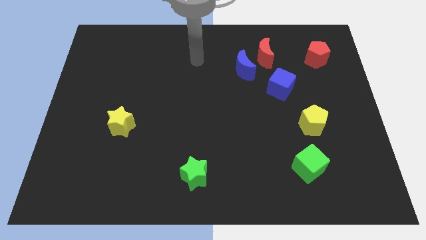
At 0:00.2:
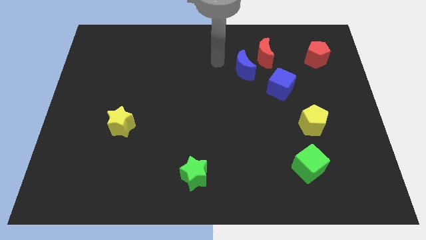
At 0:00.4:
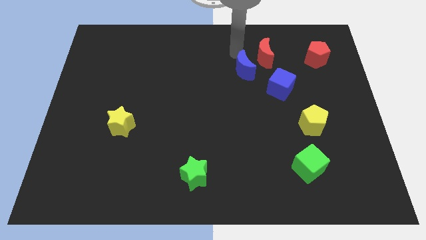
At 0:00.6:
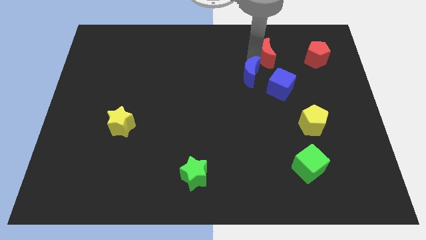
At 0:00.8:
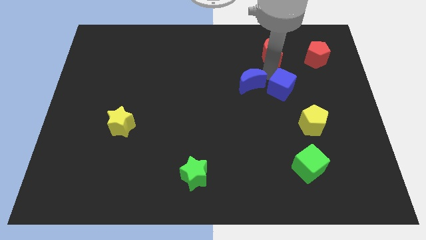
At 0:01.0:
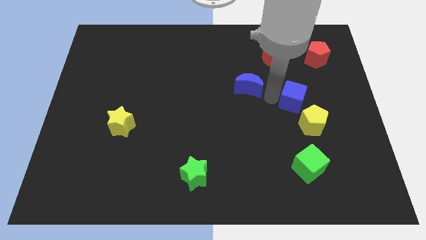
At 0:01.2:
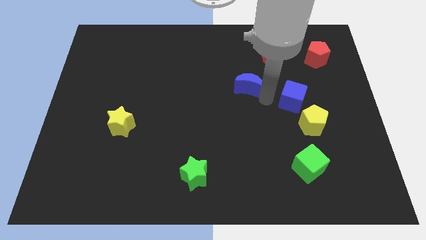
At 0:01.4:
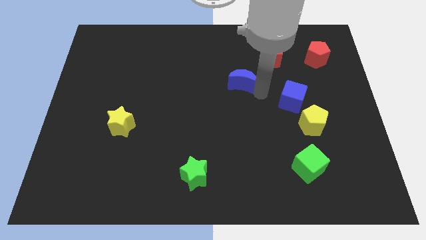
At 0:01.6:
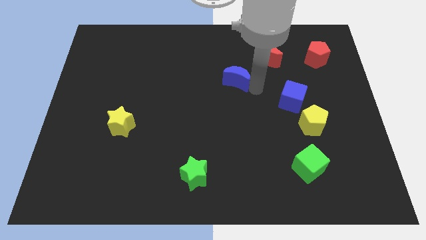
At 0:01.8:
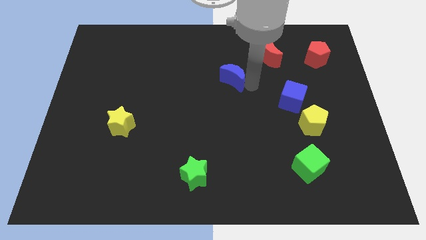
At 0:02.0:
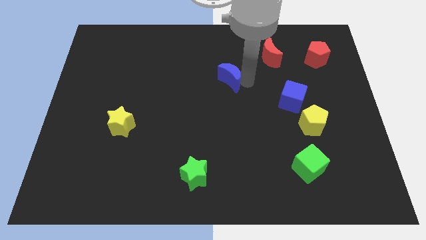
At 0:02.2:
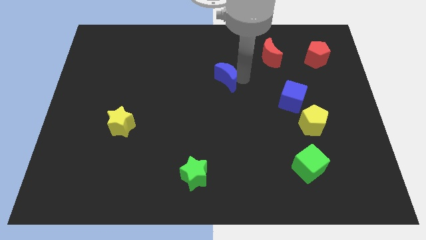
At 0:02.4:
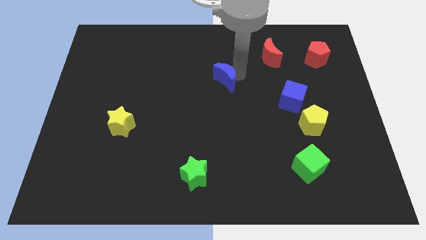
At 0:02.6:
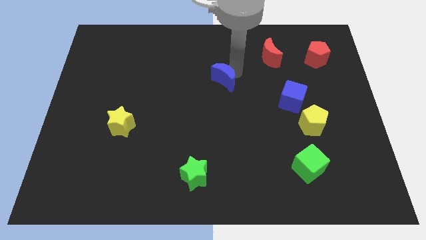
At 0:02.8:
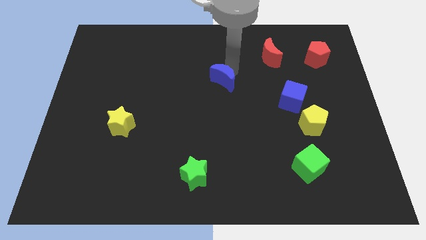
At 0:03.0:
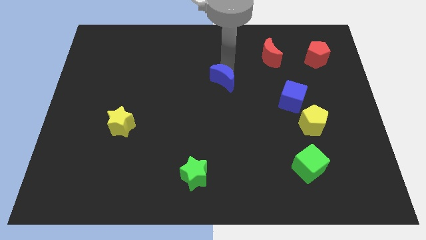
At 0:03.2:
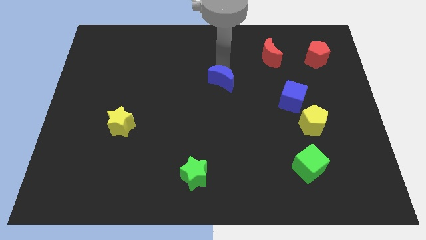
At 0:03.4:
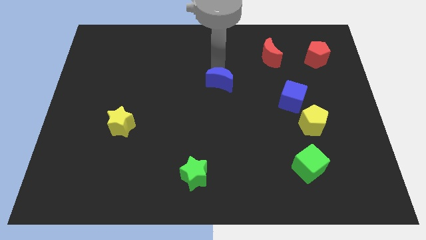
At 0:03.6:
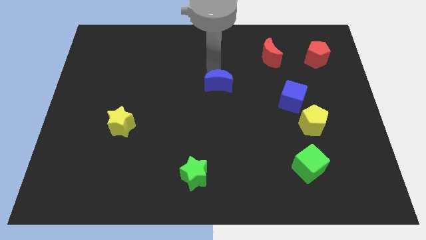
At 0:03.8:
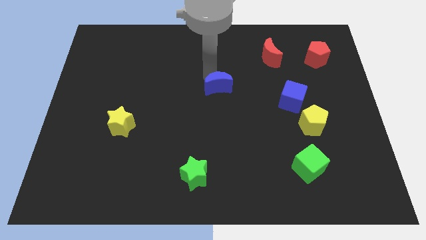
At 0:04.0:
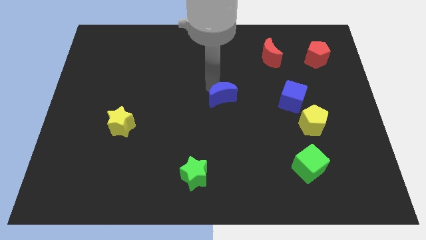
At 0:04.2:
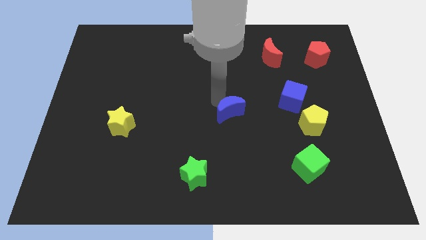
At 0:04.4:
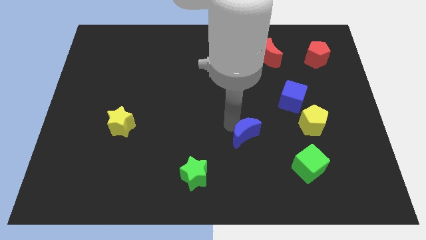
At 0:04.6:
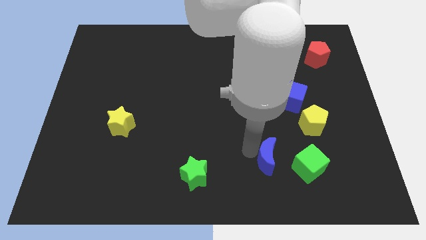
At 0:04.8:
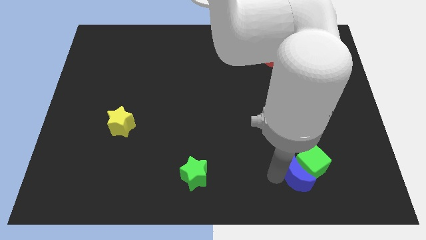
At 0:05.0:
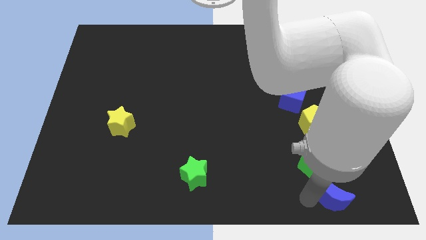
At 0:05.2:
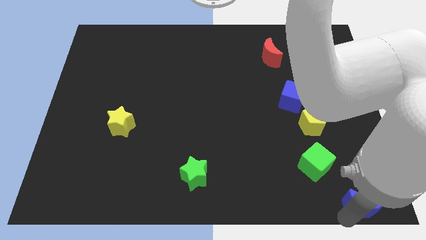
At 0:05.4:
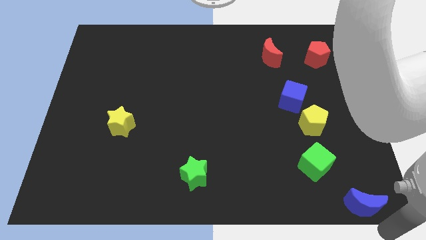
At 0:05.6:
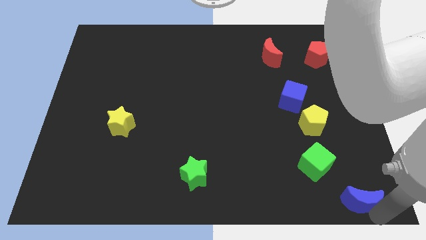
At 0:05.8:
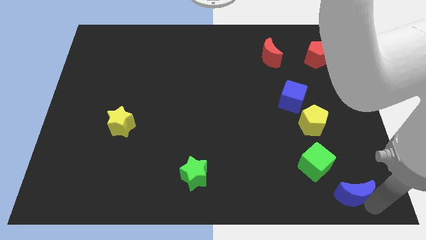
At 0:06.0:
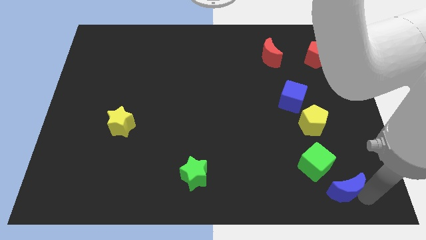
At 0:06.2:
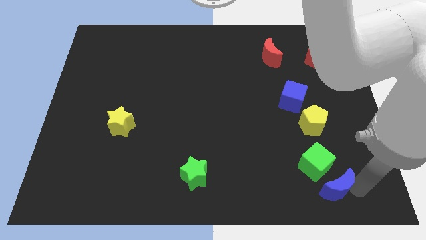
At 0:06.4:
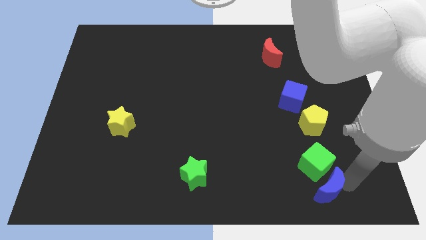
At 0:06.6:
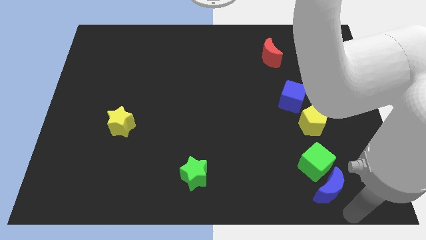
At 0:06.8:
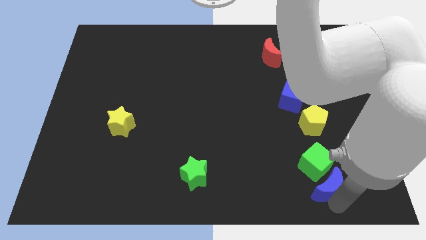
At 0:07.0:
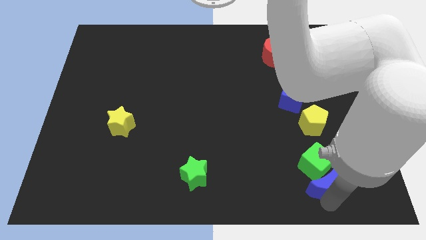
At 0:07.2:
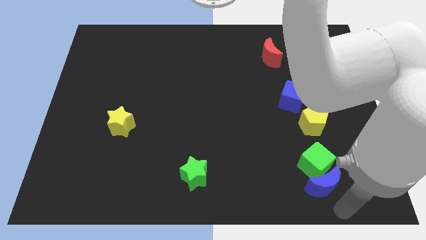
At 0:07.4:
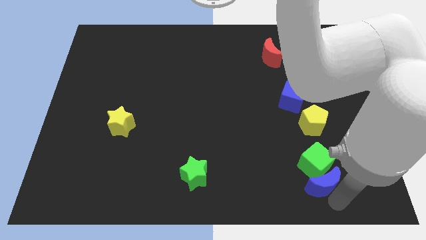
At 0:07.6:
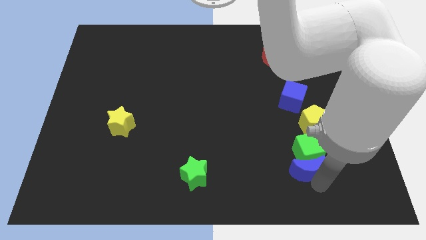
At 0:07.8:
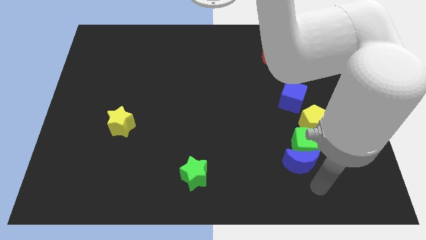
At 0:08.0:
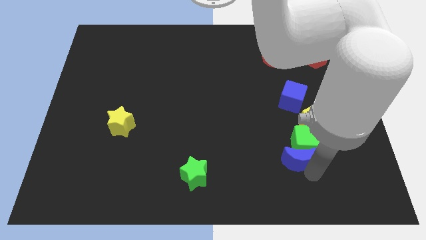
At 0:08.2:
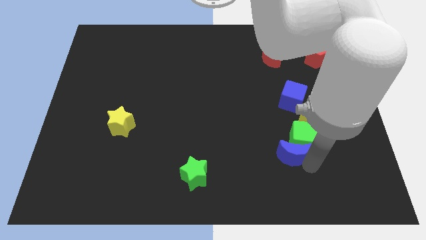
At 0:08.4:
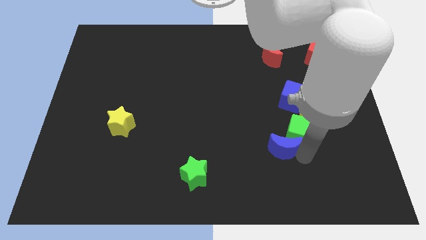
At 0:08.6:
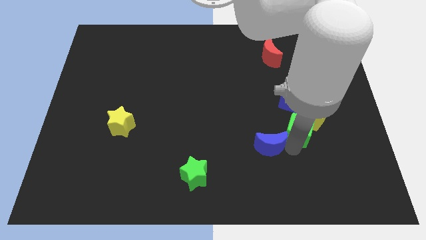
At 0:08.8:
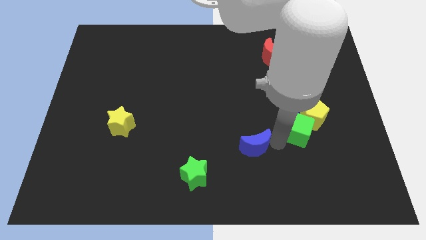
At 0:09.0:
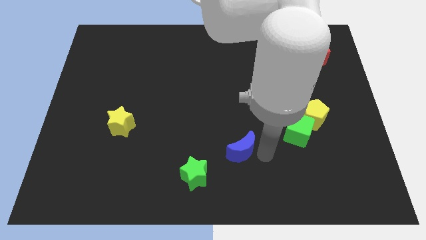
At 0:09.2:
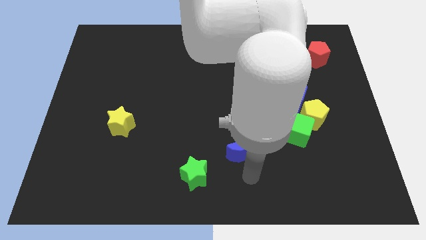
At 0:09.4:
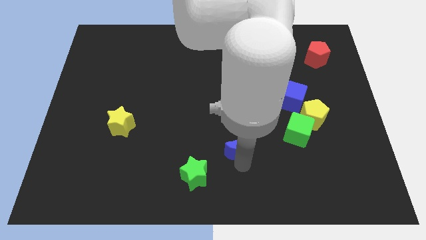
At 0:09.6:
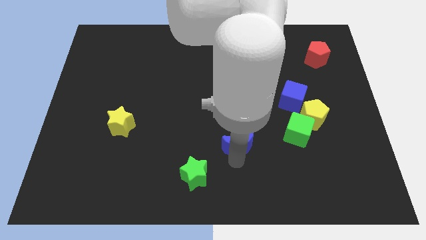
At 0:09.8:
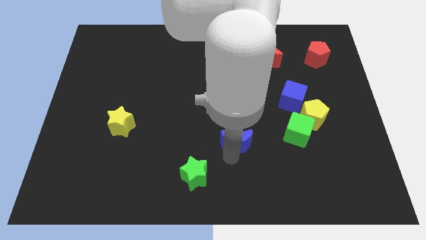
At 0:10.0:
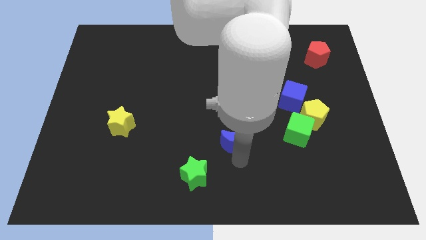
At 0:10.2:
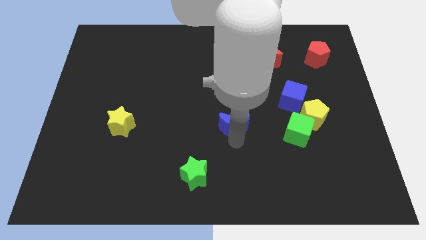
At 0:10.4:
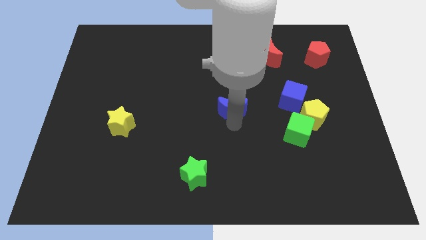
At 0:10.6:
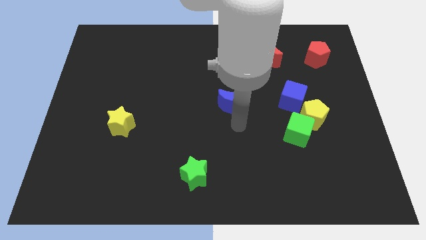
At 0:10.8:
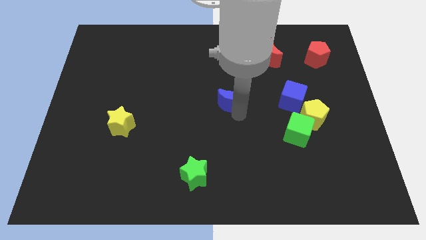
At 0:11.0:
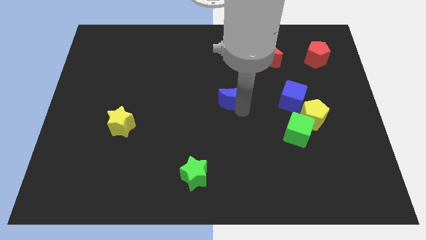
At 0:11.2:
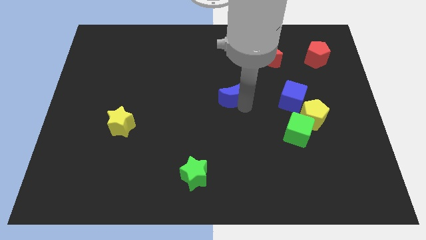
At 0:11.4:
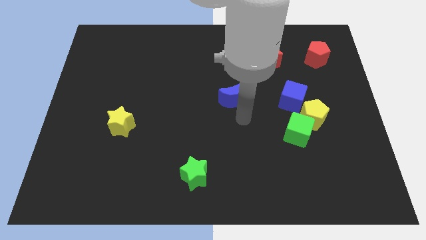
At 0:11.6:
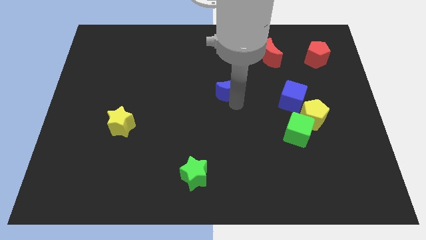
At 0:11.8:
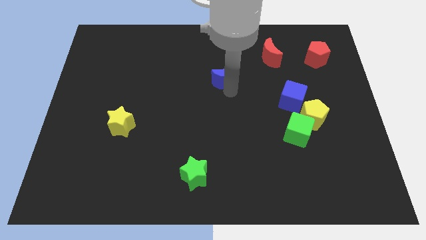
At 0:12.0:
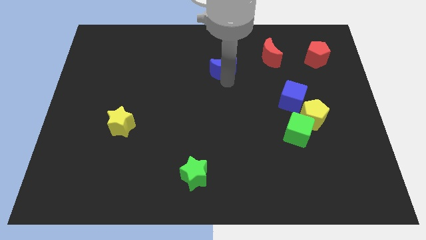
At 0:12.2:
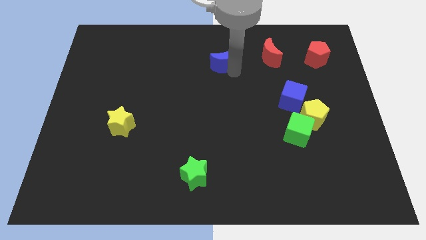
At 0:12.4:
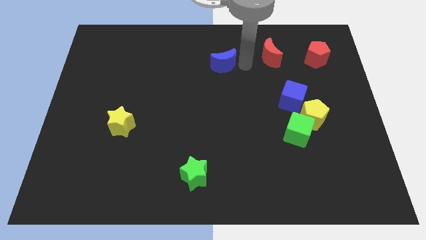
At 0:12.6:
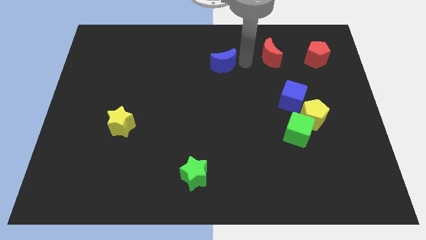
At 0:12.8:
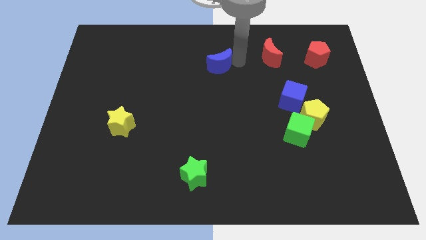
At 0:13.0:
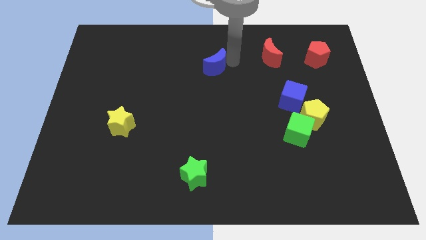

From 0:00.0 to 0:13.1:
slide the blue moon to the left somewhat

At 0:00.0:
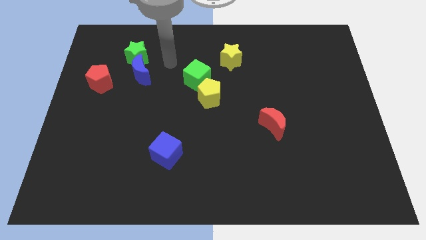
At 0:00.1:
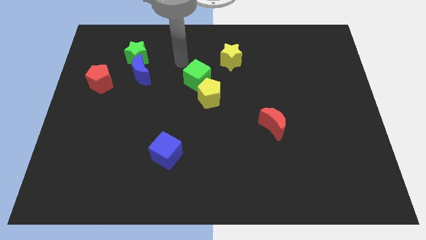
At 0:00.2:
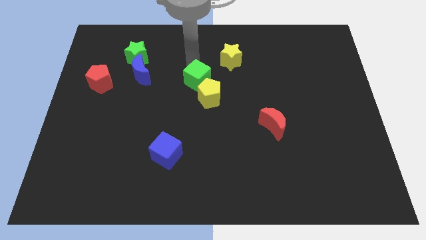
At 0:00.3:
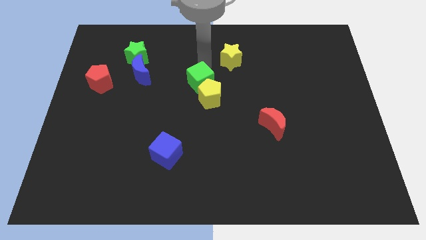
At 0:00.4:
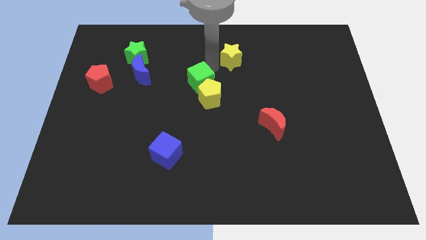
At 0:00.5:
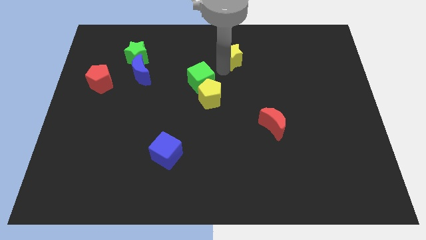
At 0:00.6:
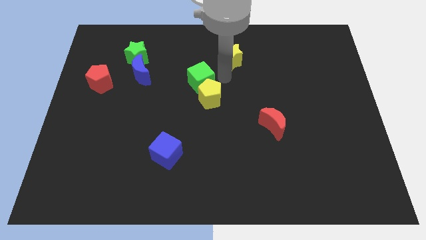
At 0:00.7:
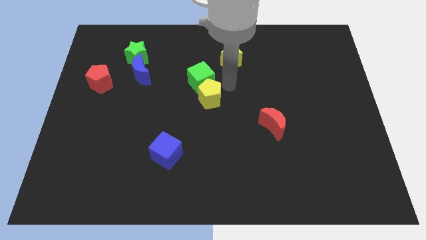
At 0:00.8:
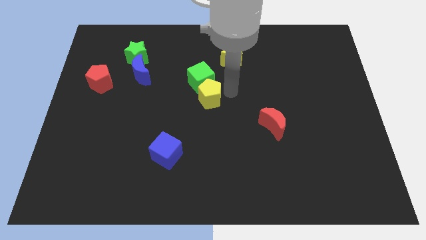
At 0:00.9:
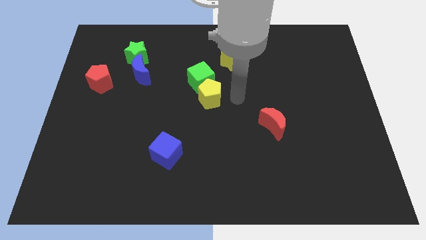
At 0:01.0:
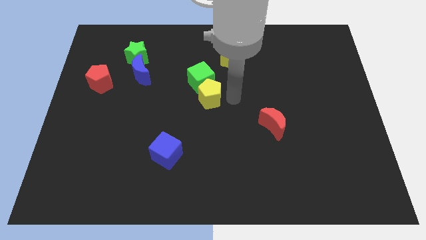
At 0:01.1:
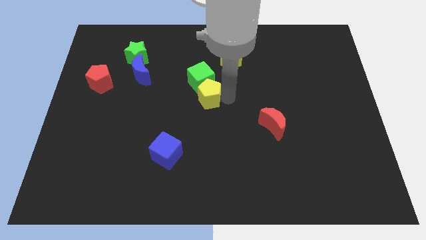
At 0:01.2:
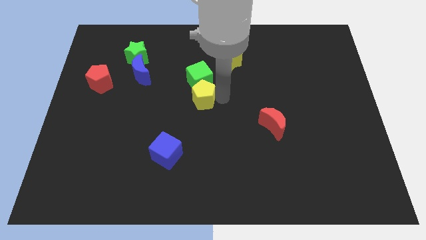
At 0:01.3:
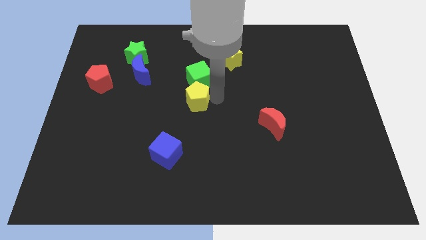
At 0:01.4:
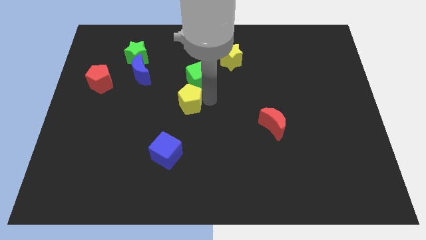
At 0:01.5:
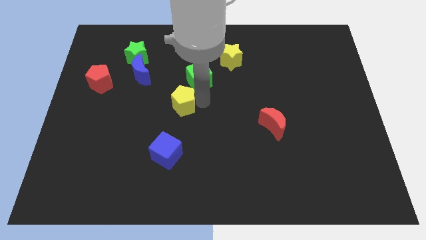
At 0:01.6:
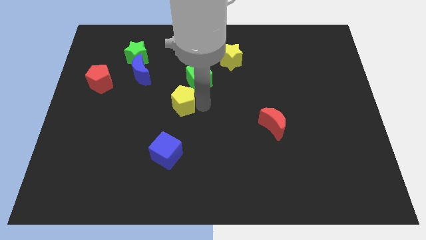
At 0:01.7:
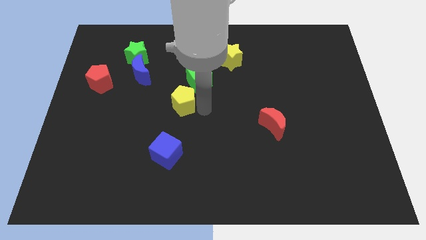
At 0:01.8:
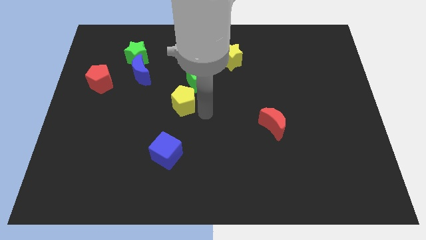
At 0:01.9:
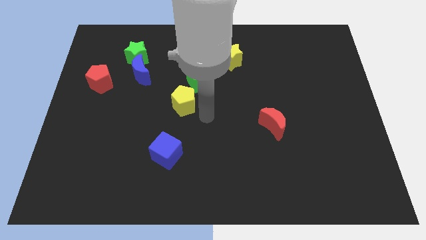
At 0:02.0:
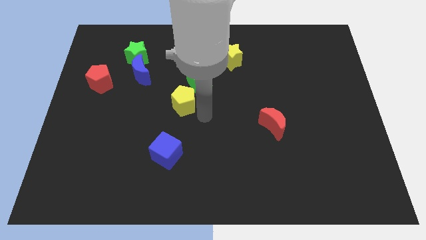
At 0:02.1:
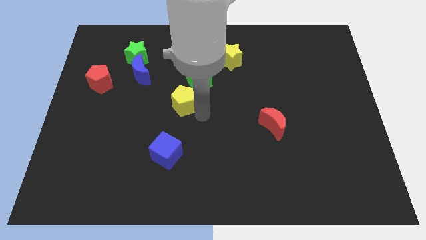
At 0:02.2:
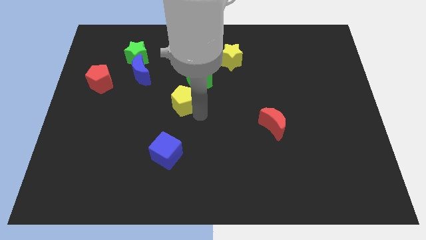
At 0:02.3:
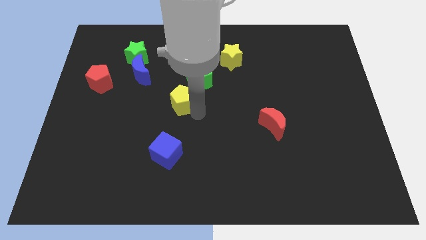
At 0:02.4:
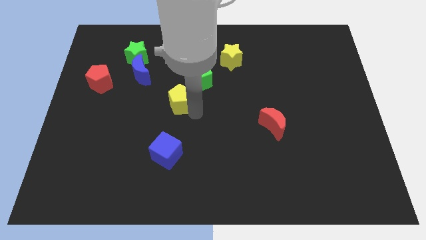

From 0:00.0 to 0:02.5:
move the yellow pentagon to the left a little
